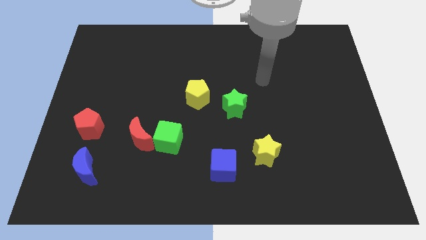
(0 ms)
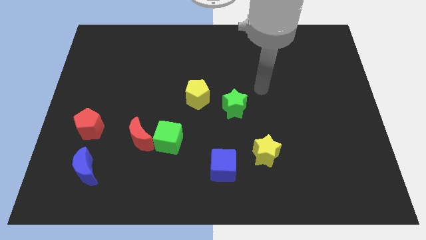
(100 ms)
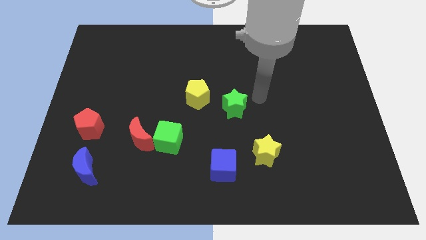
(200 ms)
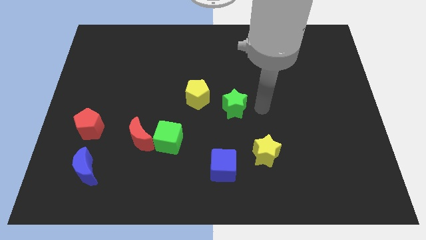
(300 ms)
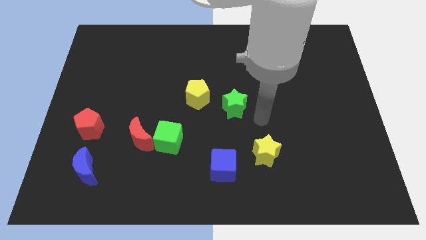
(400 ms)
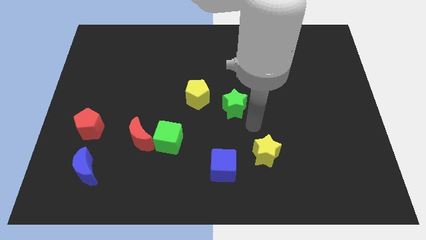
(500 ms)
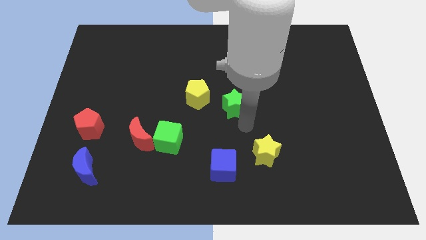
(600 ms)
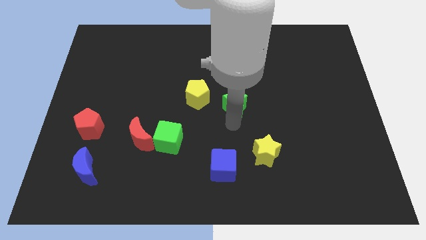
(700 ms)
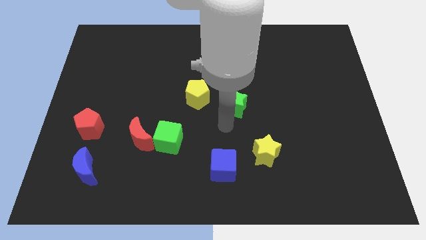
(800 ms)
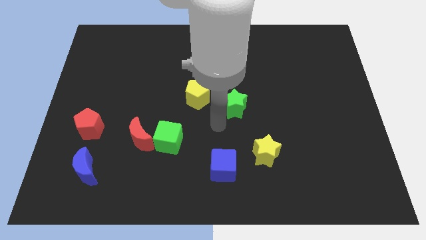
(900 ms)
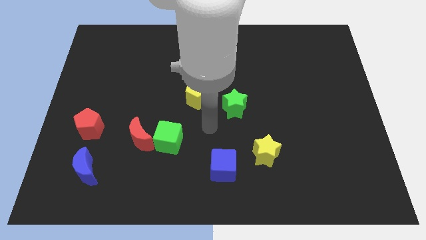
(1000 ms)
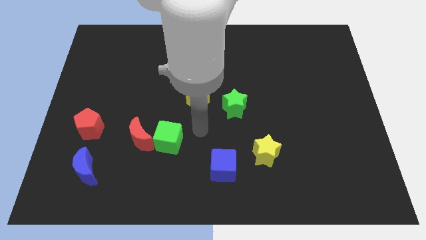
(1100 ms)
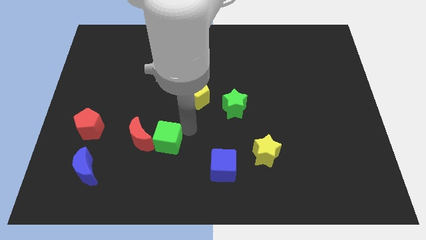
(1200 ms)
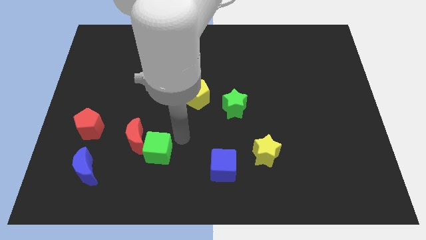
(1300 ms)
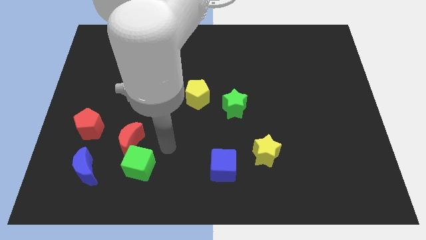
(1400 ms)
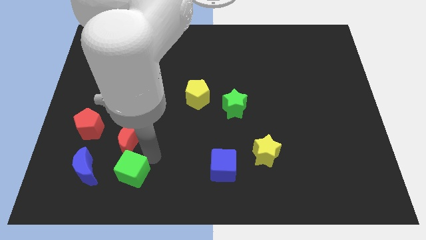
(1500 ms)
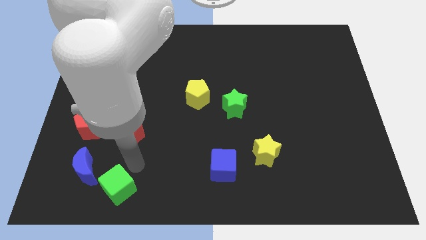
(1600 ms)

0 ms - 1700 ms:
pull the red moon apart from the green cube

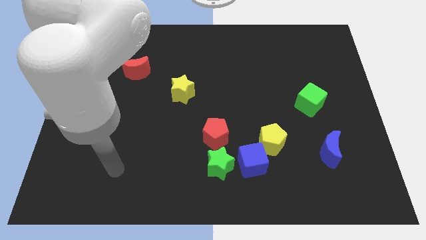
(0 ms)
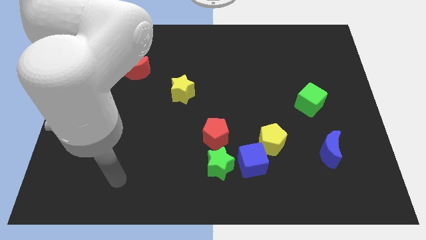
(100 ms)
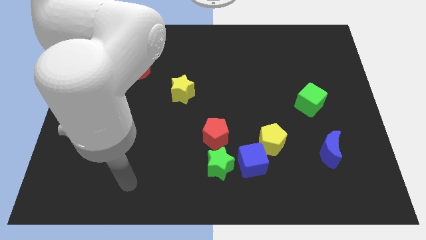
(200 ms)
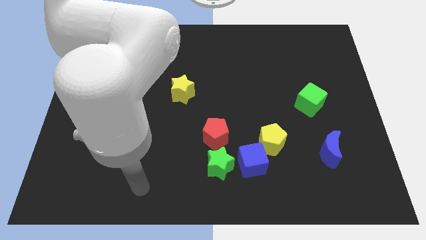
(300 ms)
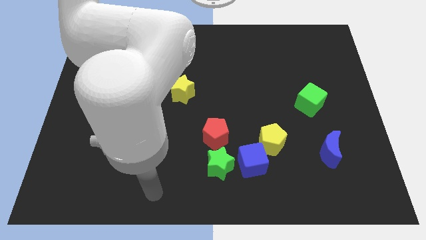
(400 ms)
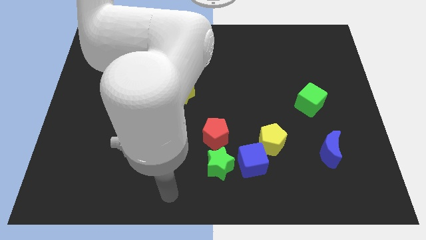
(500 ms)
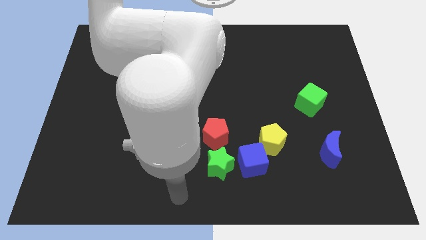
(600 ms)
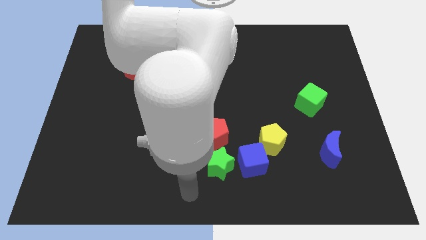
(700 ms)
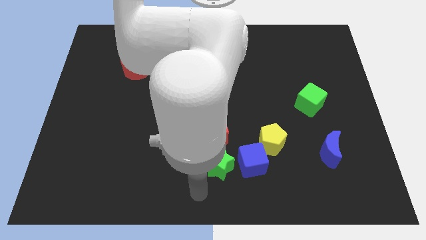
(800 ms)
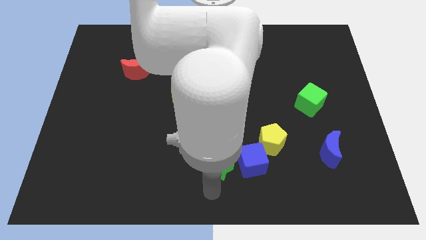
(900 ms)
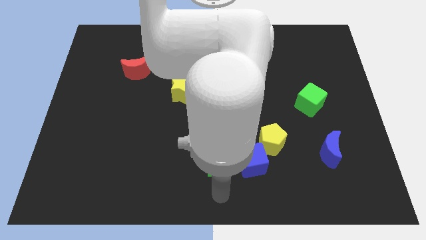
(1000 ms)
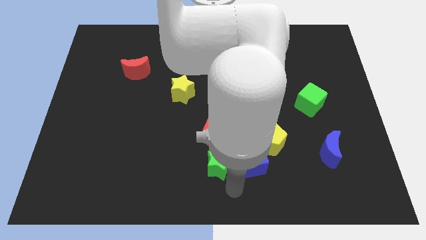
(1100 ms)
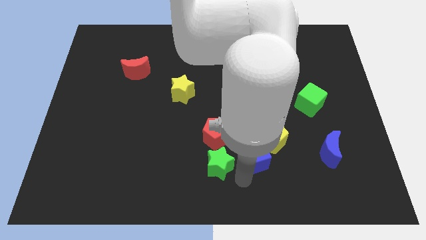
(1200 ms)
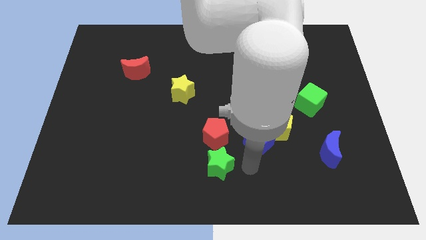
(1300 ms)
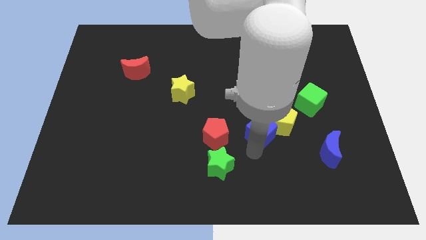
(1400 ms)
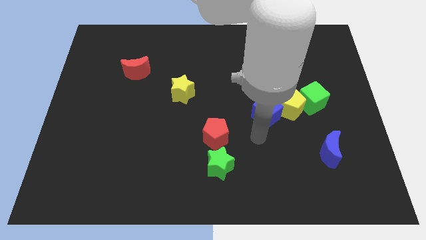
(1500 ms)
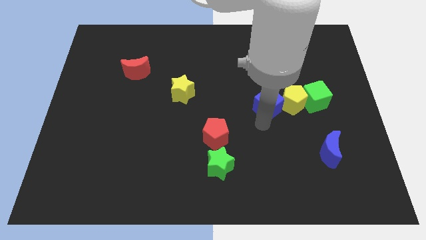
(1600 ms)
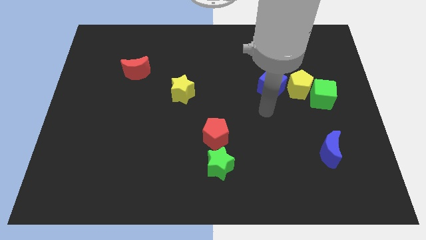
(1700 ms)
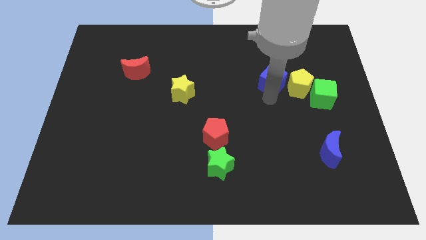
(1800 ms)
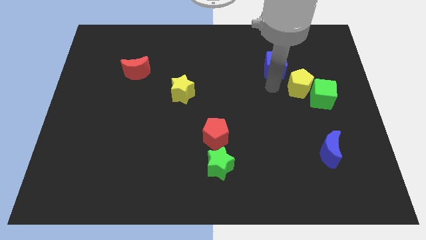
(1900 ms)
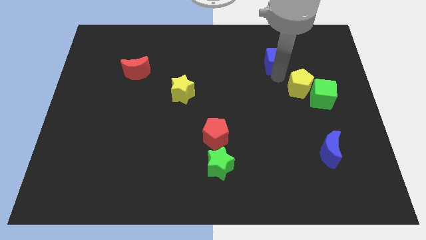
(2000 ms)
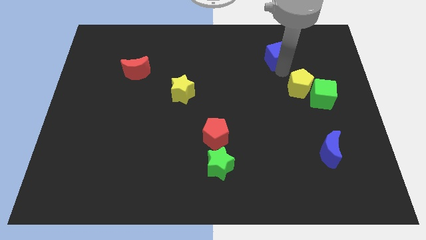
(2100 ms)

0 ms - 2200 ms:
move the yellow pentagon away from the blue cube

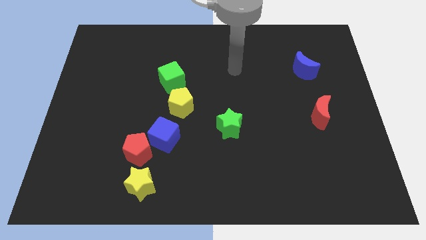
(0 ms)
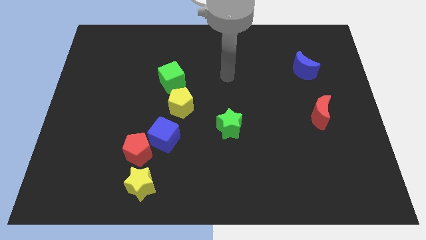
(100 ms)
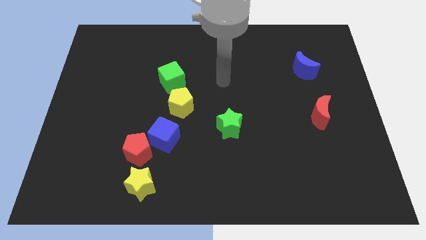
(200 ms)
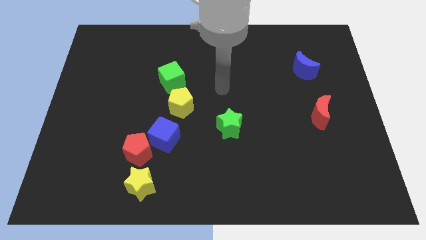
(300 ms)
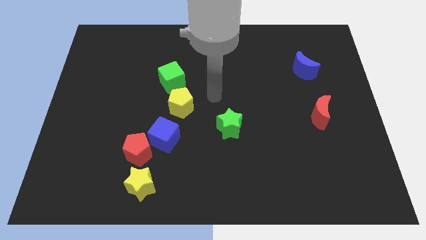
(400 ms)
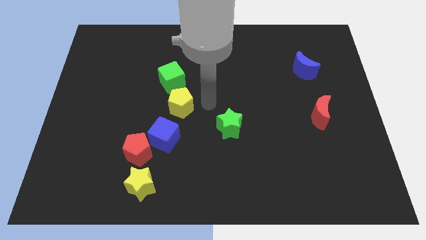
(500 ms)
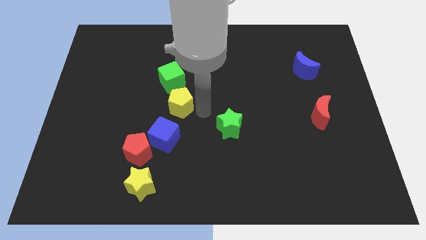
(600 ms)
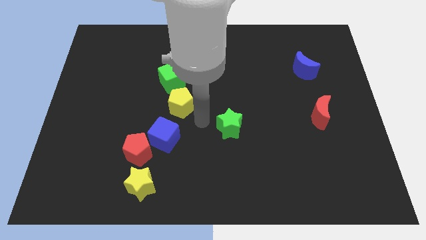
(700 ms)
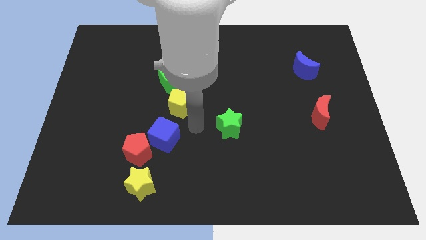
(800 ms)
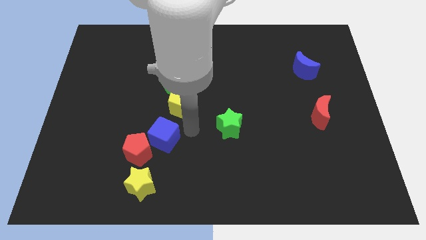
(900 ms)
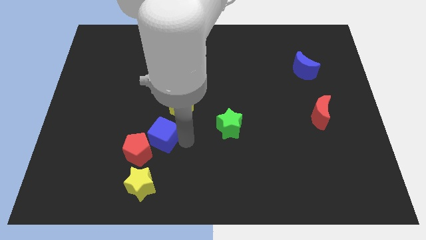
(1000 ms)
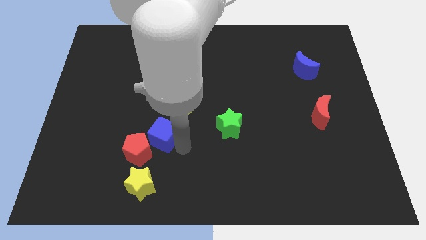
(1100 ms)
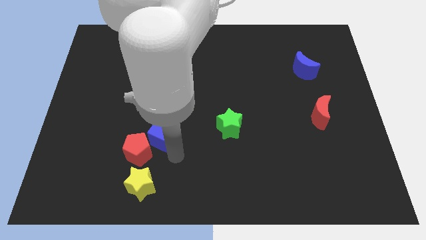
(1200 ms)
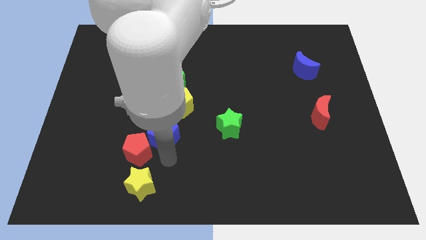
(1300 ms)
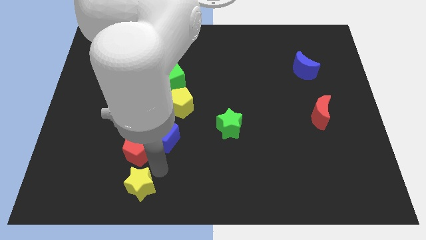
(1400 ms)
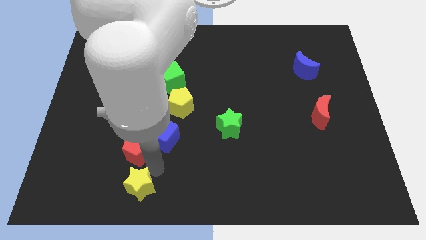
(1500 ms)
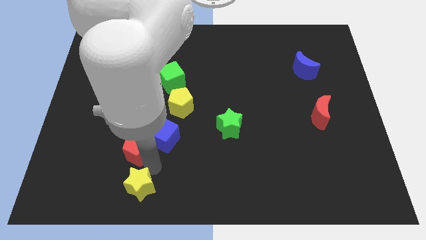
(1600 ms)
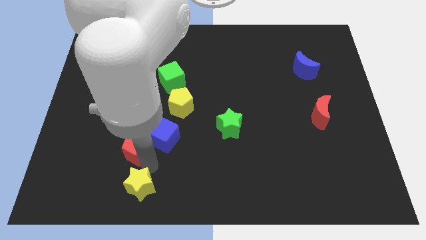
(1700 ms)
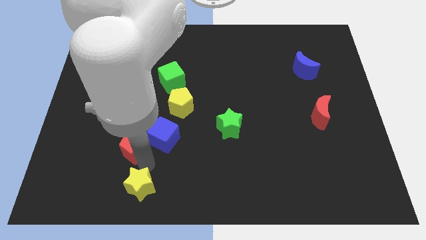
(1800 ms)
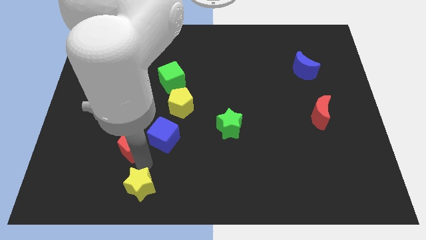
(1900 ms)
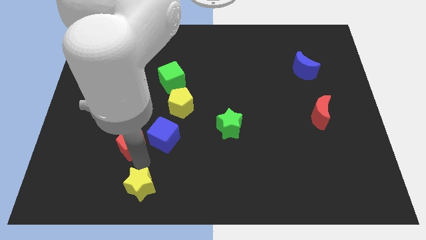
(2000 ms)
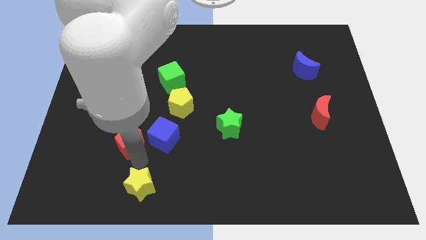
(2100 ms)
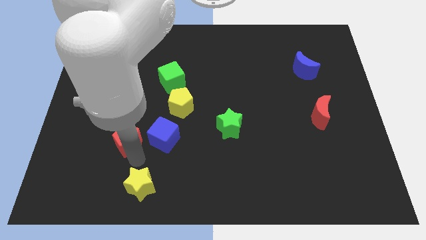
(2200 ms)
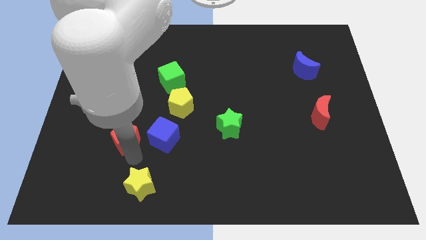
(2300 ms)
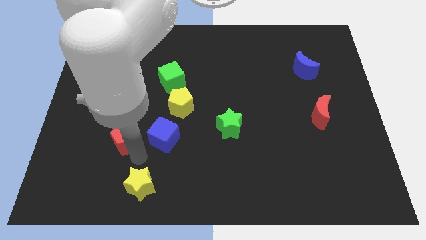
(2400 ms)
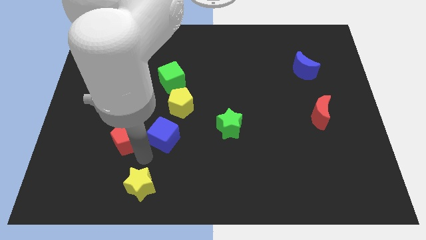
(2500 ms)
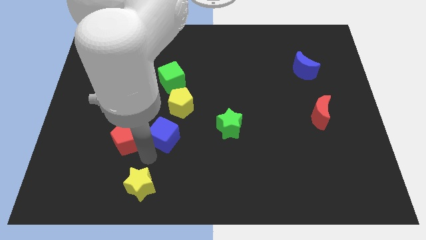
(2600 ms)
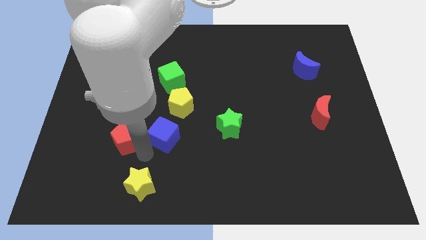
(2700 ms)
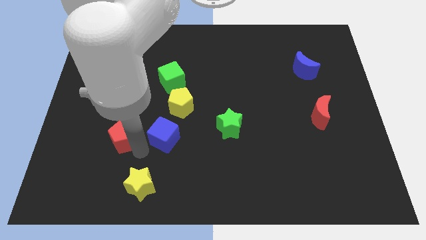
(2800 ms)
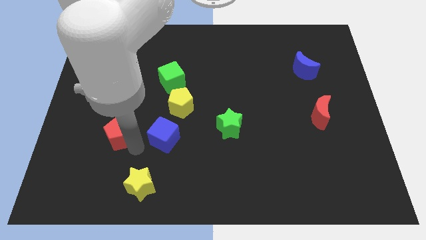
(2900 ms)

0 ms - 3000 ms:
pull the red pentagon apart from the blue cube and yellow star

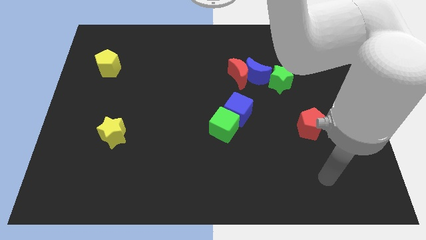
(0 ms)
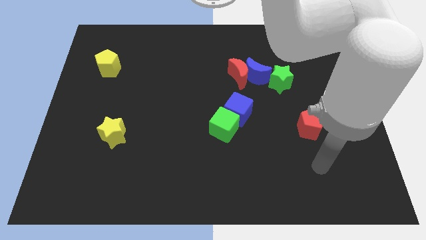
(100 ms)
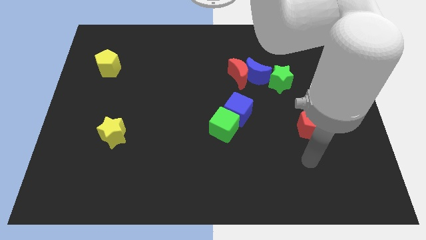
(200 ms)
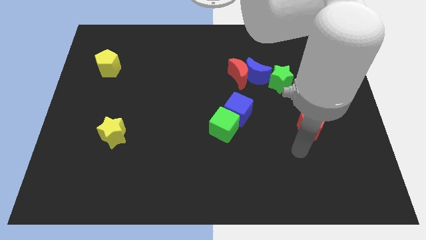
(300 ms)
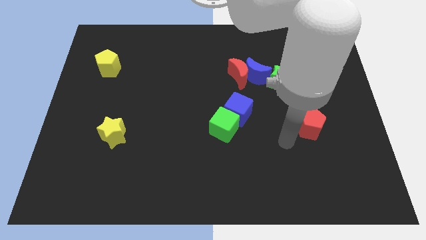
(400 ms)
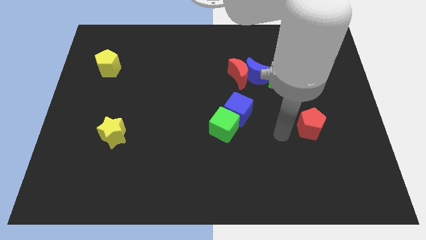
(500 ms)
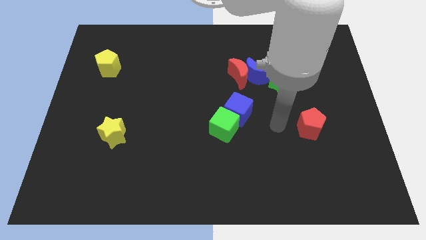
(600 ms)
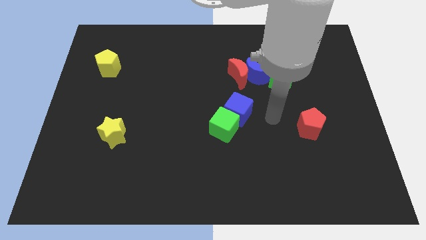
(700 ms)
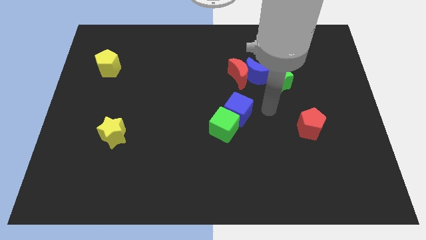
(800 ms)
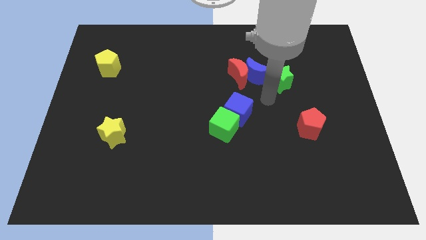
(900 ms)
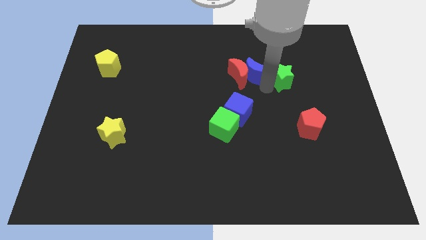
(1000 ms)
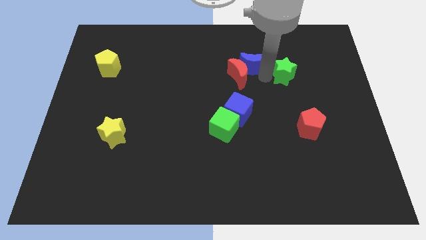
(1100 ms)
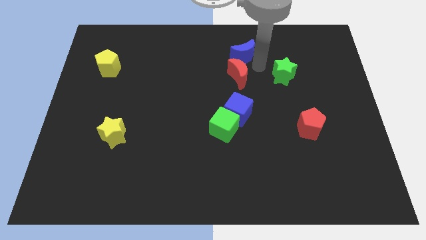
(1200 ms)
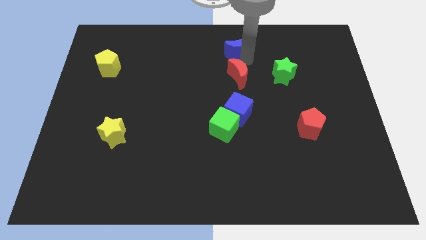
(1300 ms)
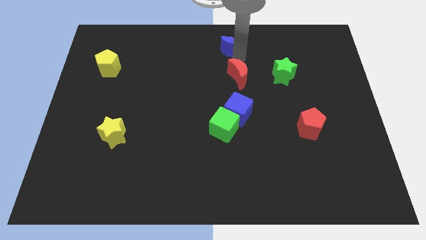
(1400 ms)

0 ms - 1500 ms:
pull the red moon apart from the blue moon

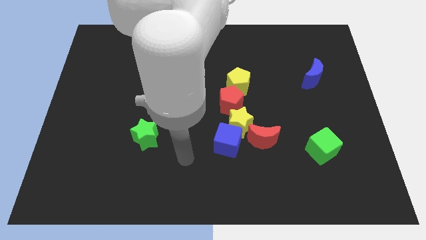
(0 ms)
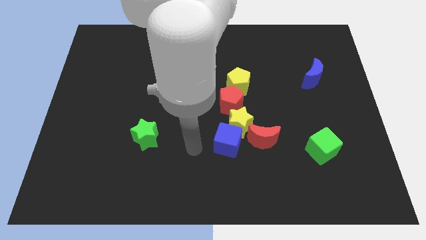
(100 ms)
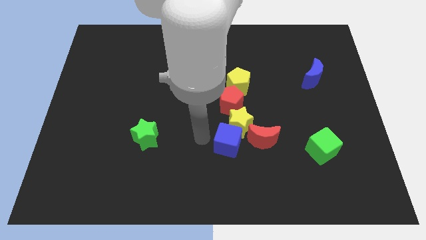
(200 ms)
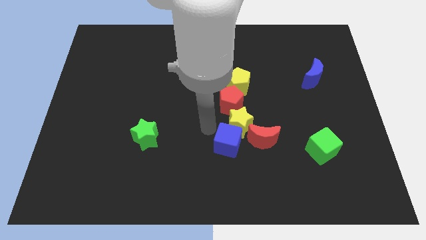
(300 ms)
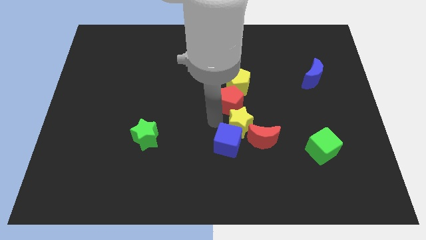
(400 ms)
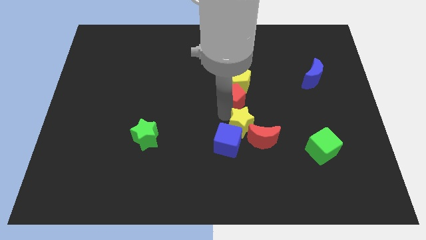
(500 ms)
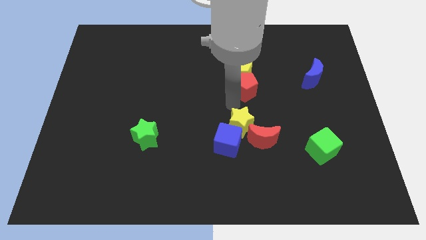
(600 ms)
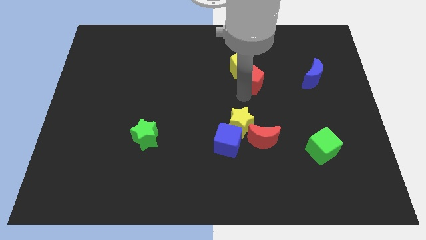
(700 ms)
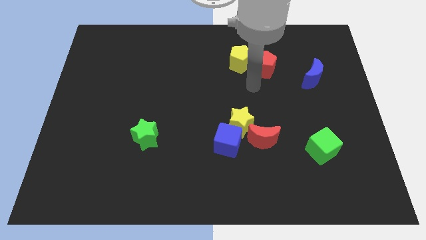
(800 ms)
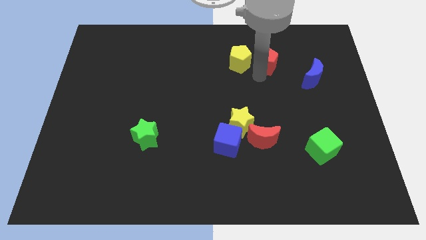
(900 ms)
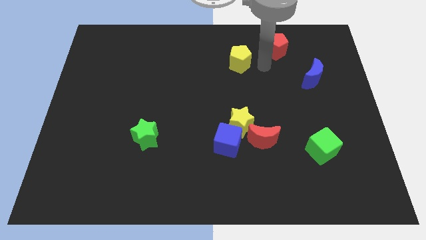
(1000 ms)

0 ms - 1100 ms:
pull the yellow pentagon apart from the red pentagon
